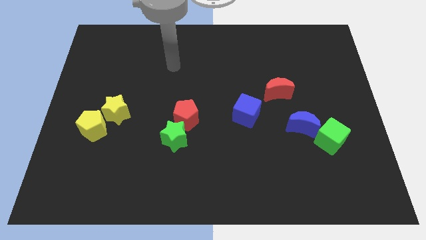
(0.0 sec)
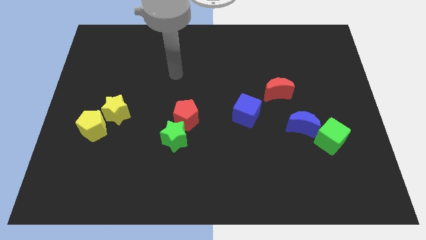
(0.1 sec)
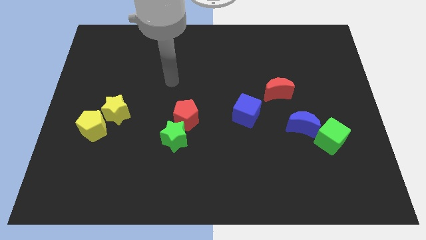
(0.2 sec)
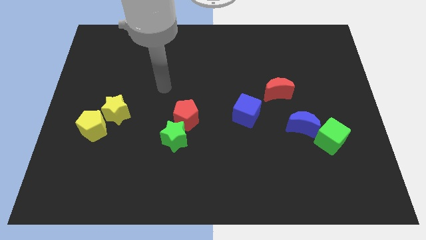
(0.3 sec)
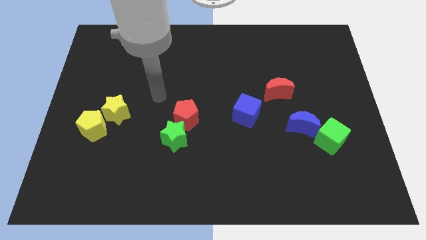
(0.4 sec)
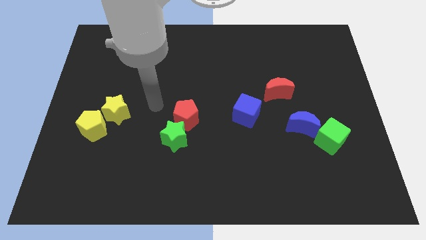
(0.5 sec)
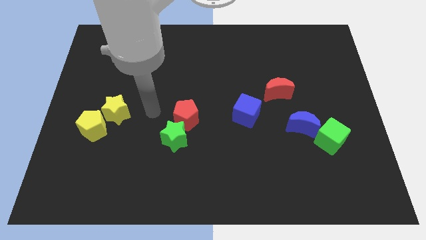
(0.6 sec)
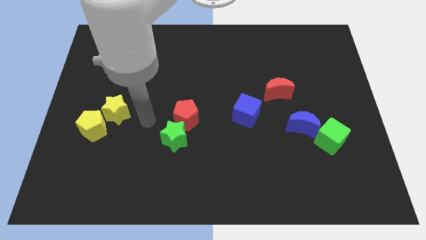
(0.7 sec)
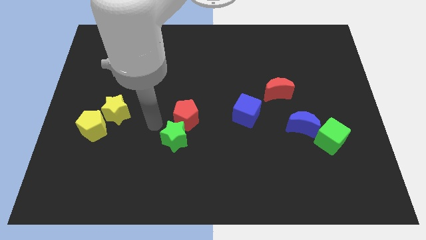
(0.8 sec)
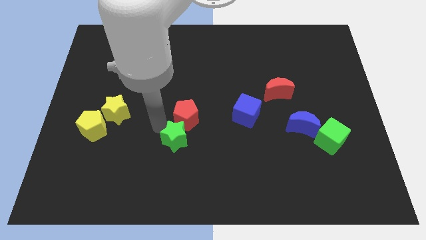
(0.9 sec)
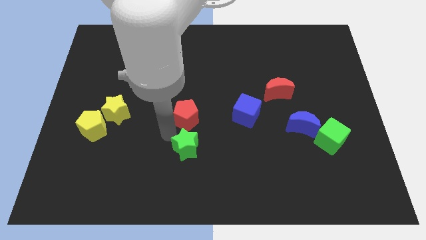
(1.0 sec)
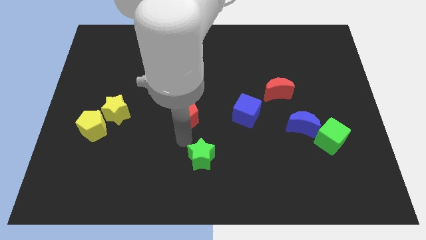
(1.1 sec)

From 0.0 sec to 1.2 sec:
pull the red pentagon apart from the green star

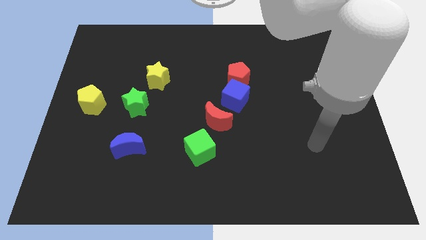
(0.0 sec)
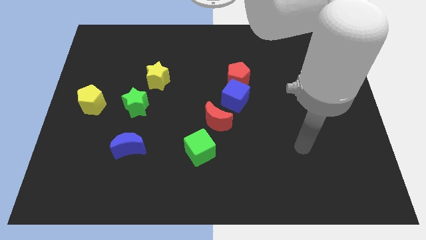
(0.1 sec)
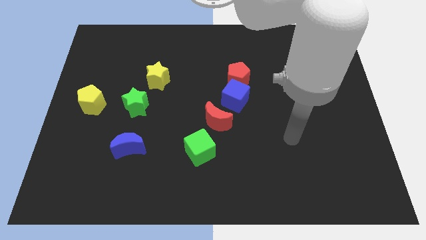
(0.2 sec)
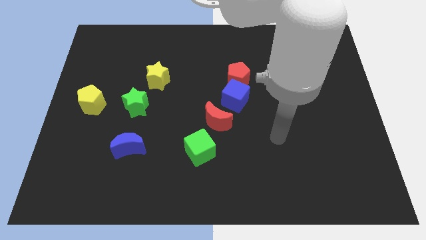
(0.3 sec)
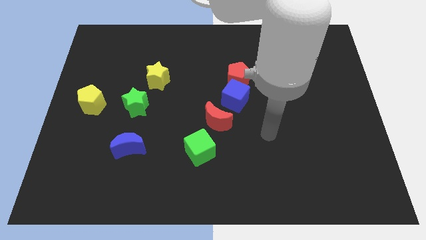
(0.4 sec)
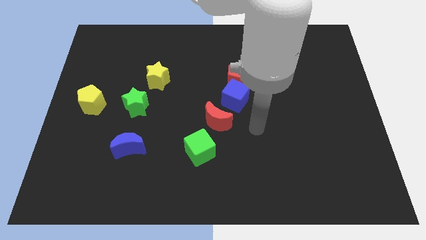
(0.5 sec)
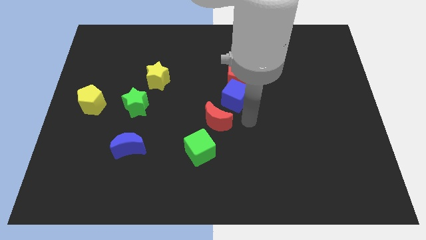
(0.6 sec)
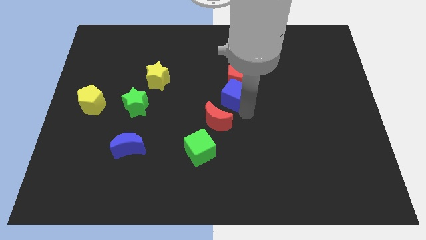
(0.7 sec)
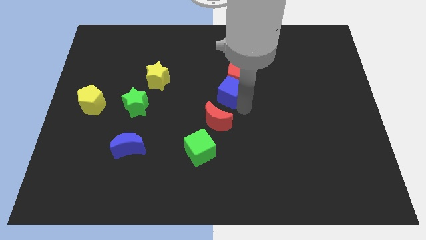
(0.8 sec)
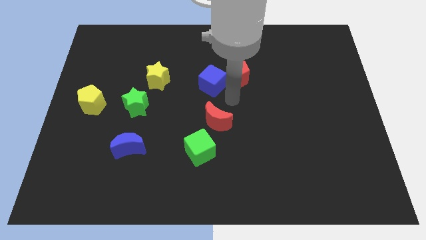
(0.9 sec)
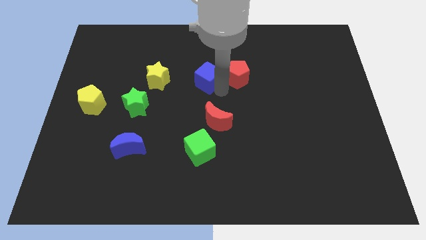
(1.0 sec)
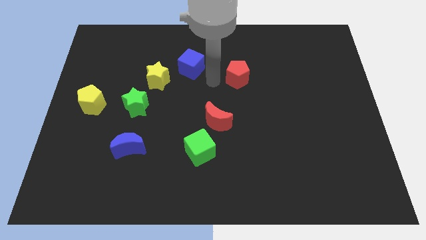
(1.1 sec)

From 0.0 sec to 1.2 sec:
move the red pentagon away from the blue cube

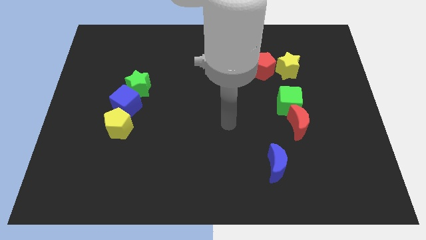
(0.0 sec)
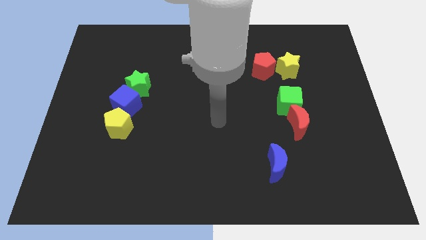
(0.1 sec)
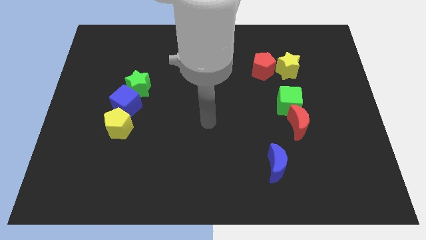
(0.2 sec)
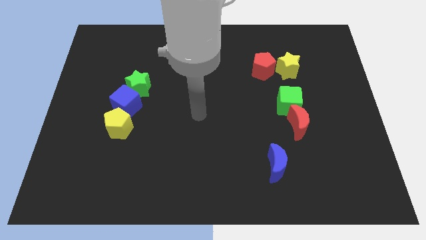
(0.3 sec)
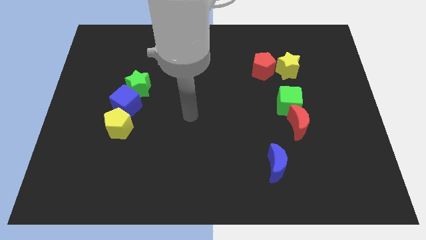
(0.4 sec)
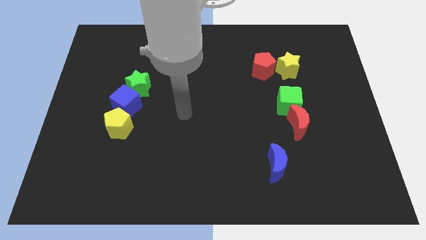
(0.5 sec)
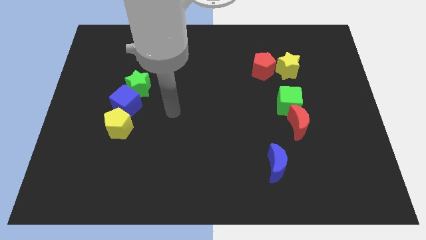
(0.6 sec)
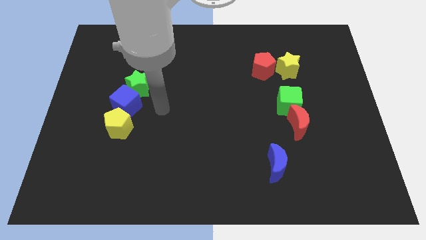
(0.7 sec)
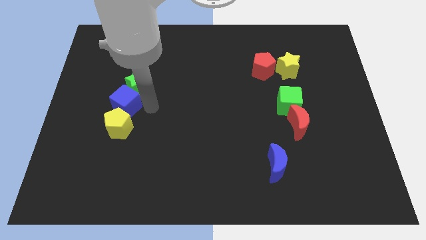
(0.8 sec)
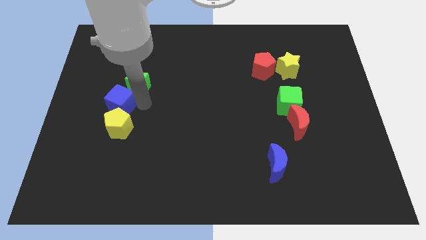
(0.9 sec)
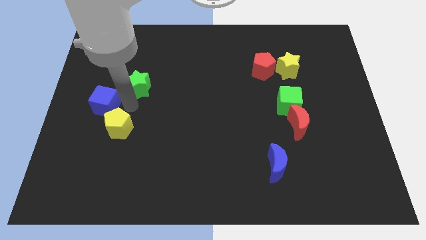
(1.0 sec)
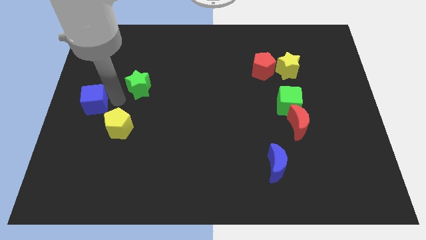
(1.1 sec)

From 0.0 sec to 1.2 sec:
separate the green star from the blue cube

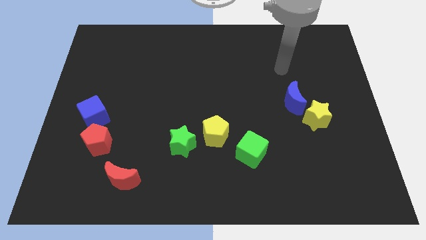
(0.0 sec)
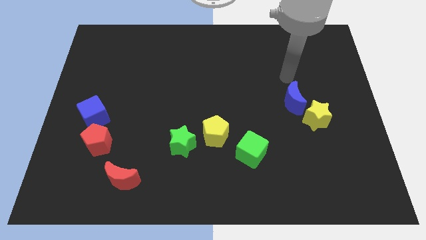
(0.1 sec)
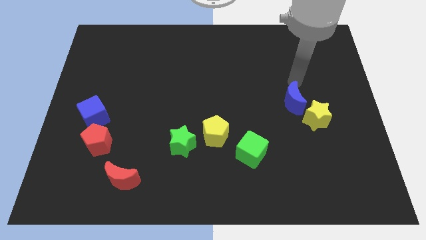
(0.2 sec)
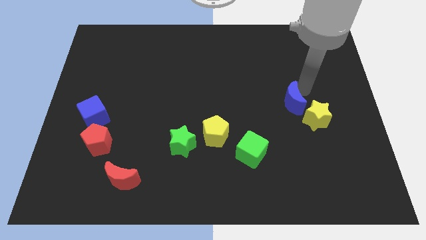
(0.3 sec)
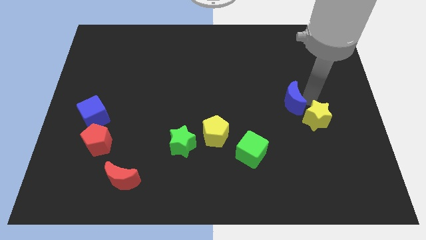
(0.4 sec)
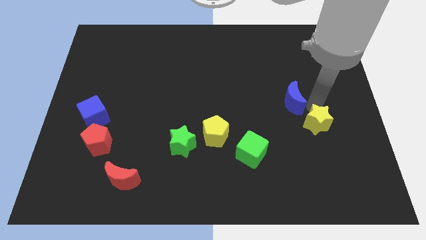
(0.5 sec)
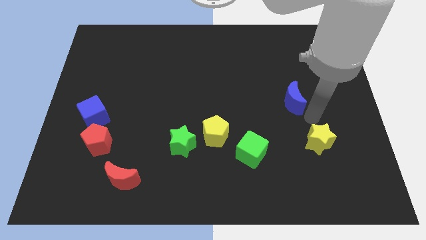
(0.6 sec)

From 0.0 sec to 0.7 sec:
separate the blue moon from the yellow star

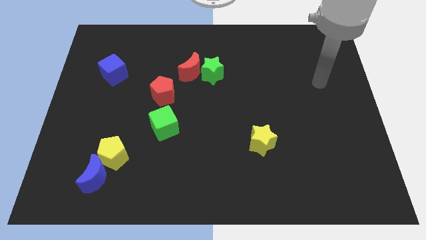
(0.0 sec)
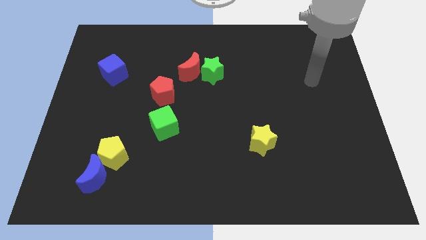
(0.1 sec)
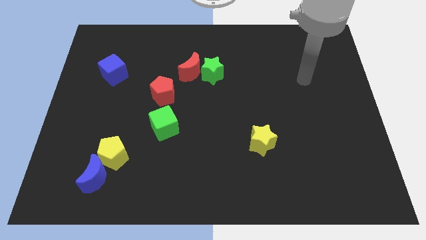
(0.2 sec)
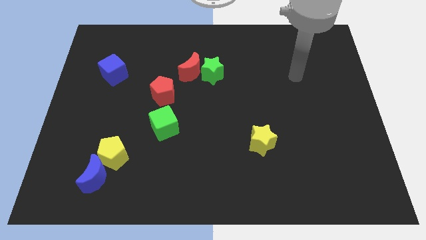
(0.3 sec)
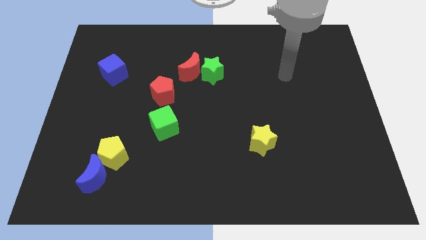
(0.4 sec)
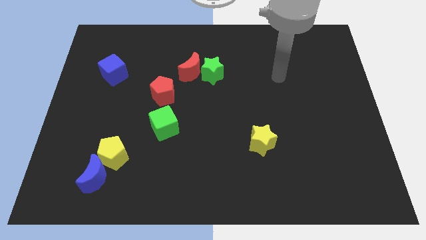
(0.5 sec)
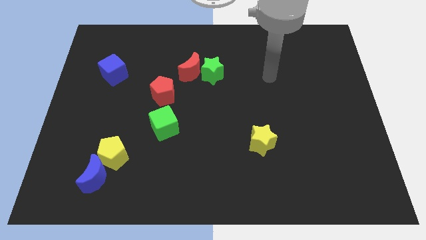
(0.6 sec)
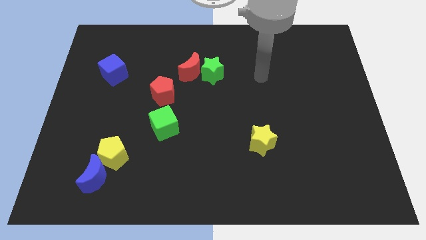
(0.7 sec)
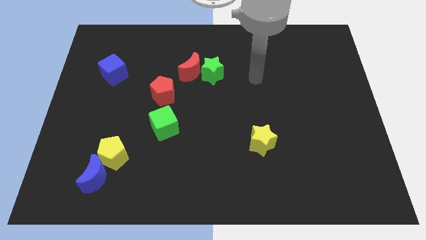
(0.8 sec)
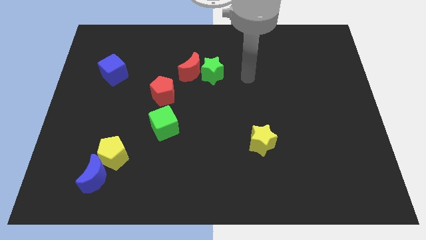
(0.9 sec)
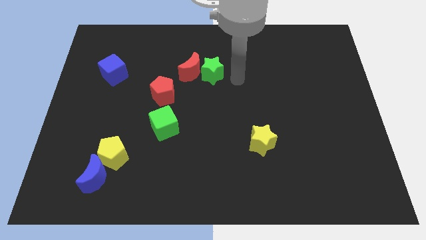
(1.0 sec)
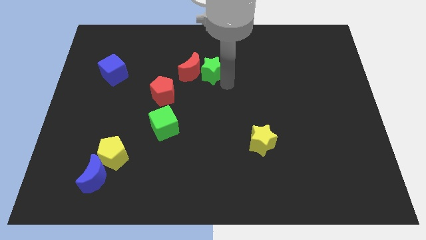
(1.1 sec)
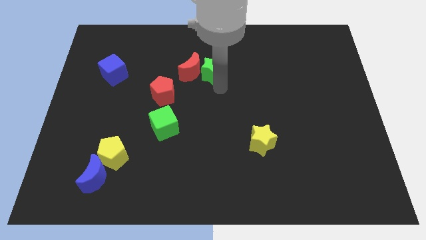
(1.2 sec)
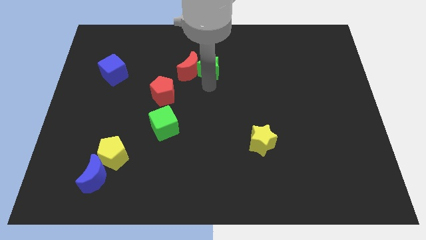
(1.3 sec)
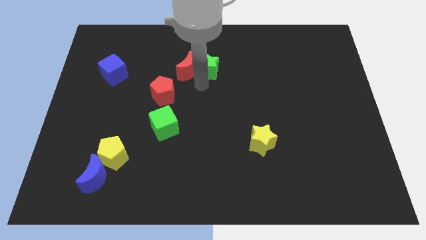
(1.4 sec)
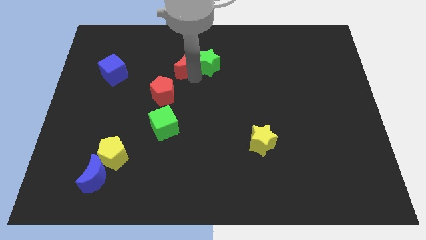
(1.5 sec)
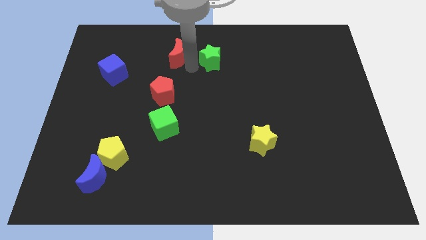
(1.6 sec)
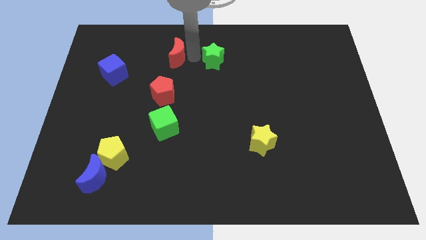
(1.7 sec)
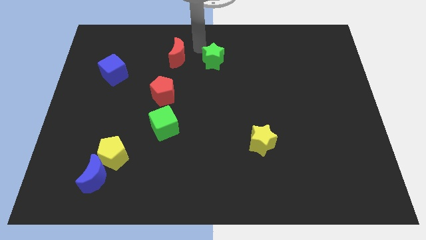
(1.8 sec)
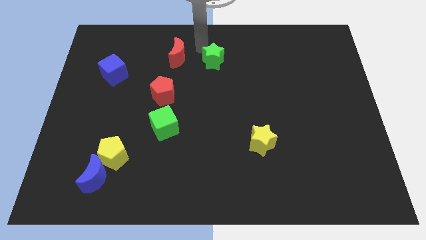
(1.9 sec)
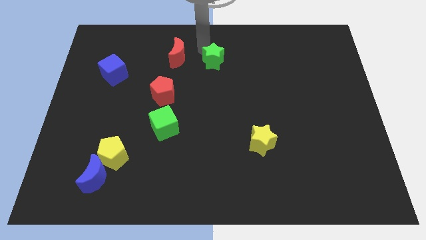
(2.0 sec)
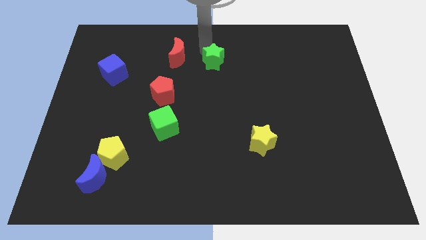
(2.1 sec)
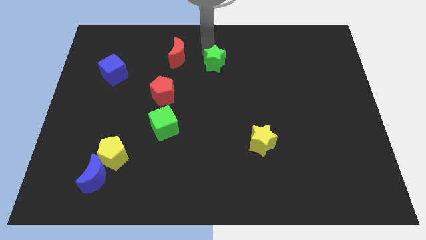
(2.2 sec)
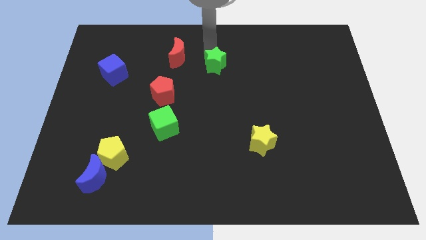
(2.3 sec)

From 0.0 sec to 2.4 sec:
move the green star away from the red moon

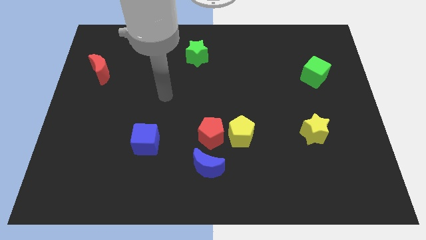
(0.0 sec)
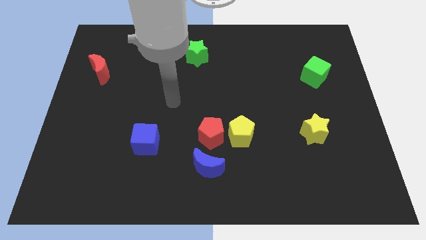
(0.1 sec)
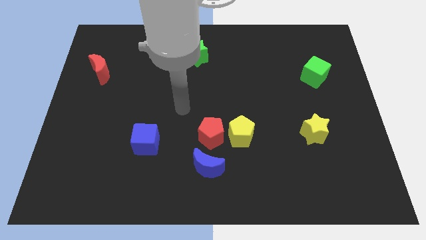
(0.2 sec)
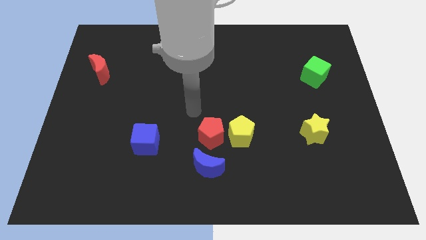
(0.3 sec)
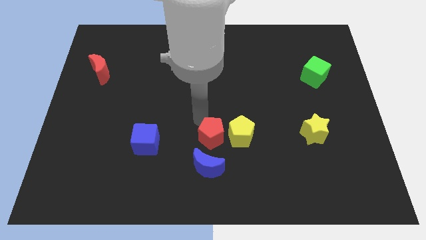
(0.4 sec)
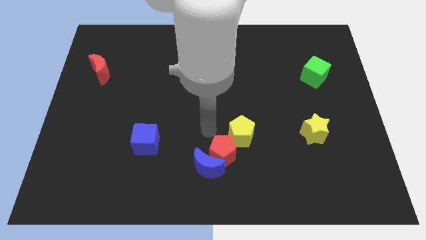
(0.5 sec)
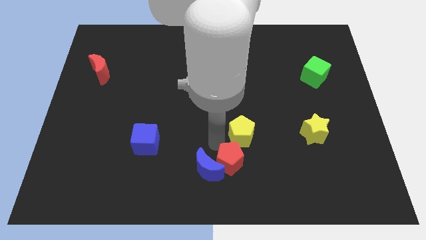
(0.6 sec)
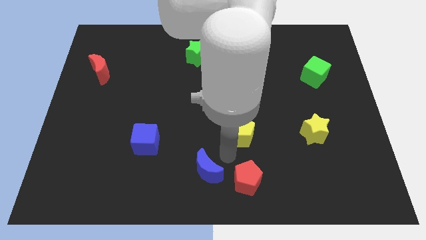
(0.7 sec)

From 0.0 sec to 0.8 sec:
separate the yellow pentagon from the red pentagon

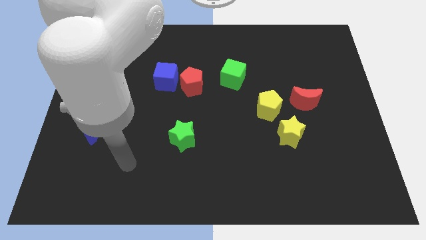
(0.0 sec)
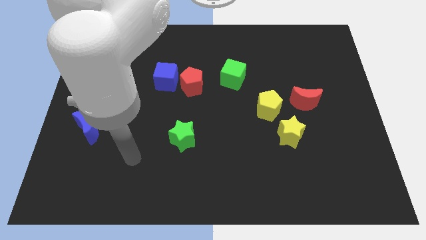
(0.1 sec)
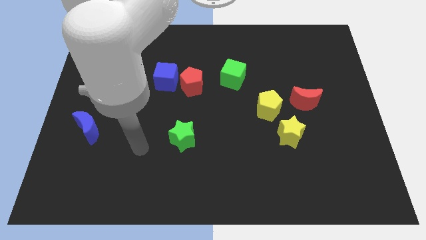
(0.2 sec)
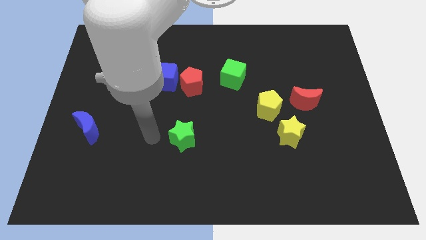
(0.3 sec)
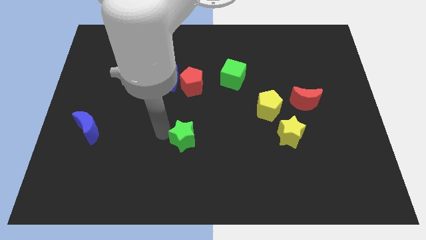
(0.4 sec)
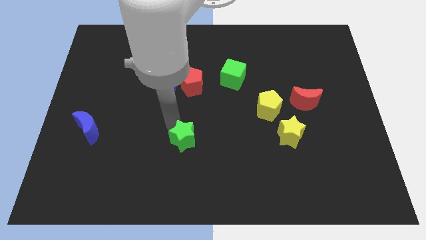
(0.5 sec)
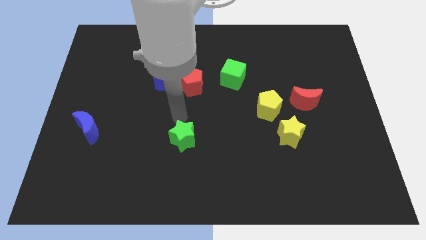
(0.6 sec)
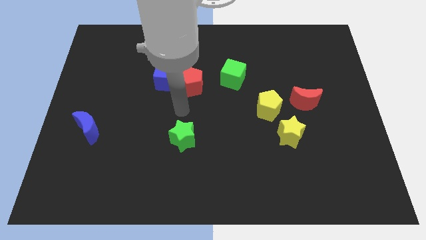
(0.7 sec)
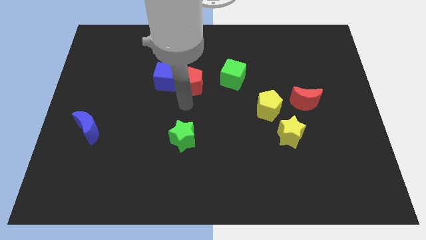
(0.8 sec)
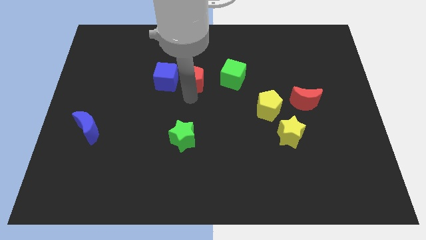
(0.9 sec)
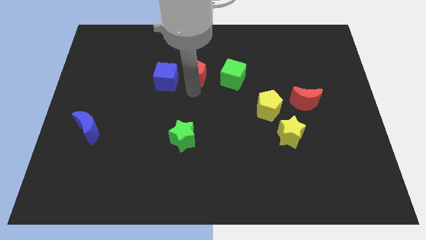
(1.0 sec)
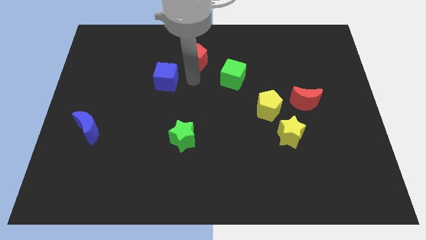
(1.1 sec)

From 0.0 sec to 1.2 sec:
pull the blue cube apart from the red pentagon

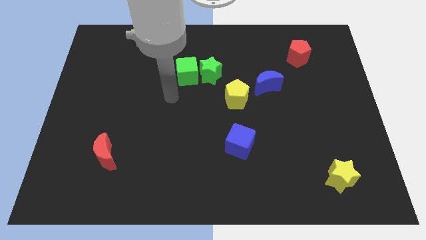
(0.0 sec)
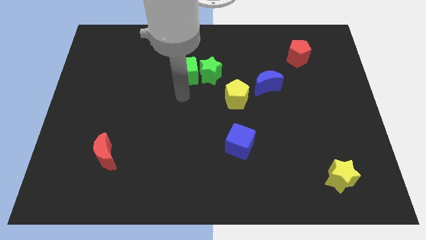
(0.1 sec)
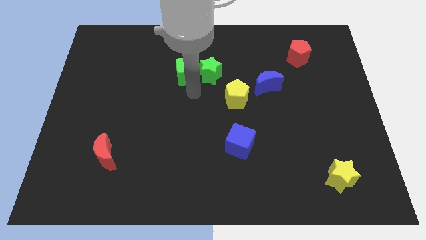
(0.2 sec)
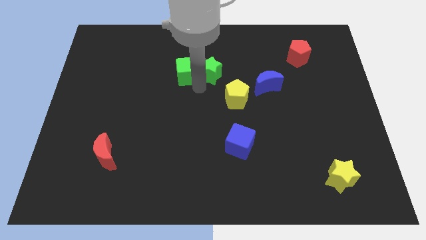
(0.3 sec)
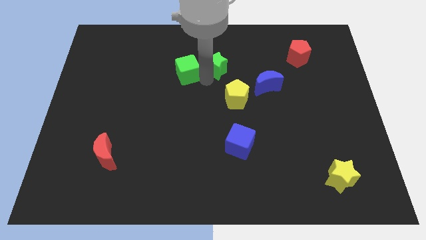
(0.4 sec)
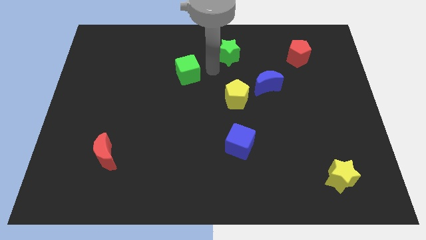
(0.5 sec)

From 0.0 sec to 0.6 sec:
separate the green cube from the green star

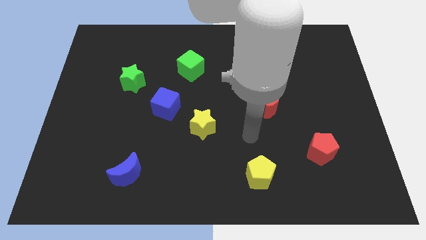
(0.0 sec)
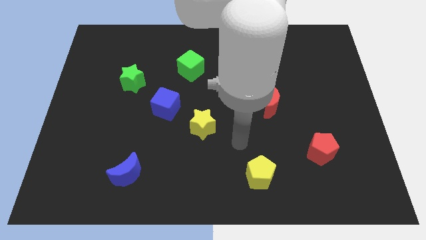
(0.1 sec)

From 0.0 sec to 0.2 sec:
pull the blue cube apart from the yellow star
